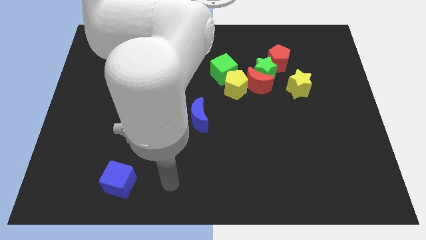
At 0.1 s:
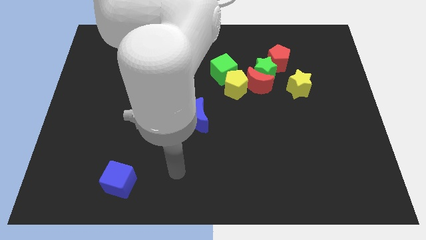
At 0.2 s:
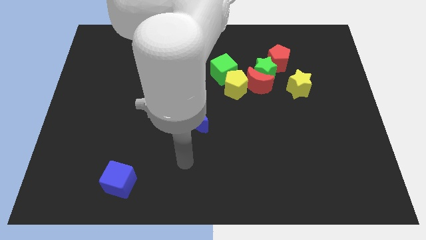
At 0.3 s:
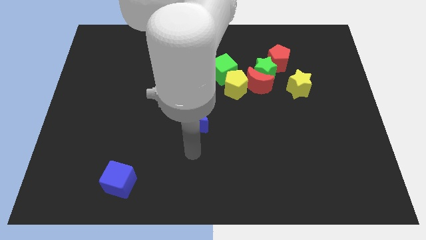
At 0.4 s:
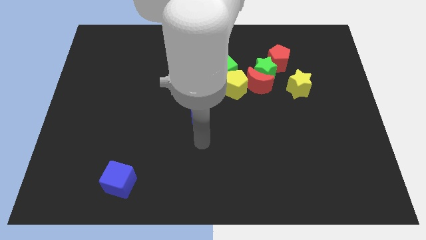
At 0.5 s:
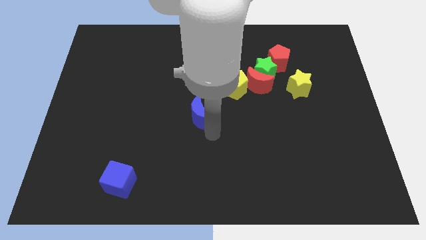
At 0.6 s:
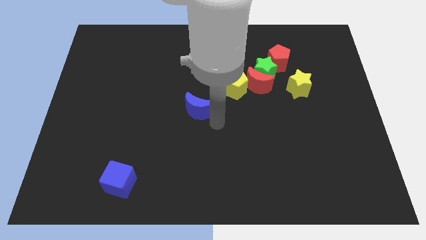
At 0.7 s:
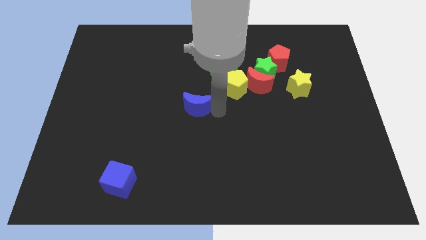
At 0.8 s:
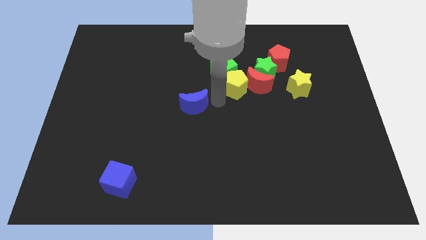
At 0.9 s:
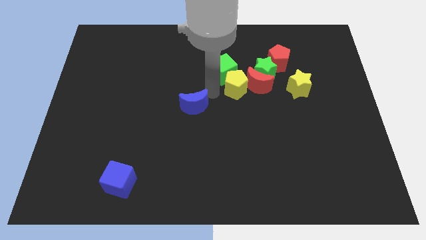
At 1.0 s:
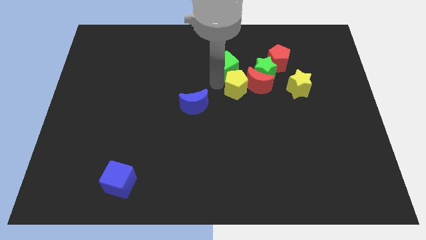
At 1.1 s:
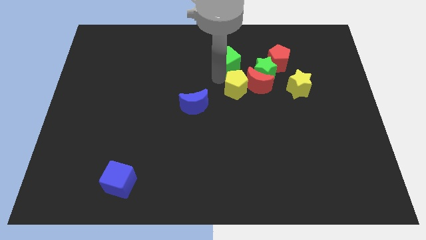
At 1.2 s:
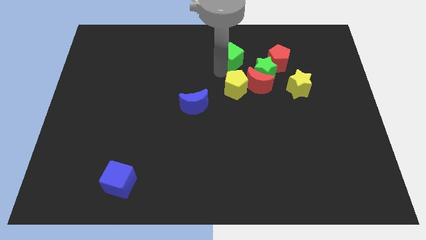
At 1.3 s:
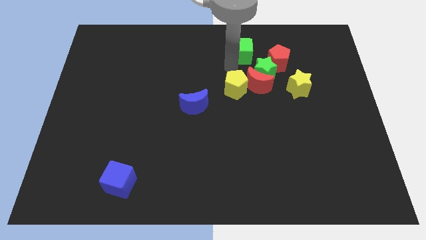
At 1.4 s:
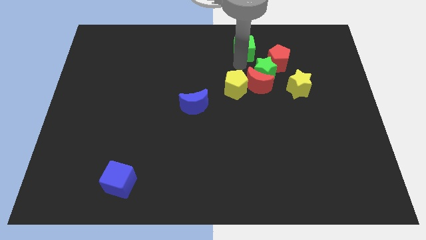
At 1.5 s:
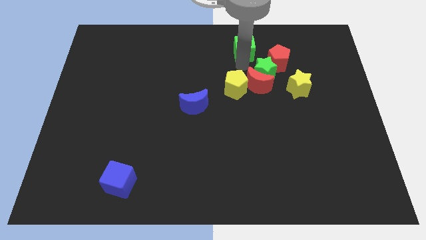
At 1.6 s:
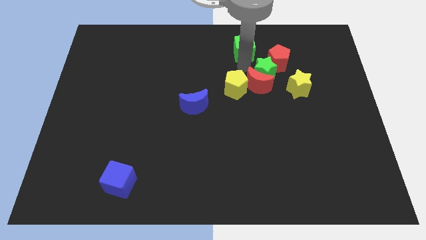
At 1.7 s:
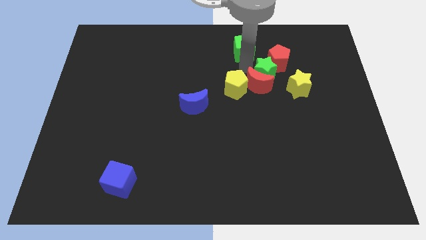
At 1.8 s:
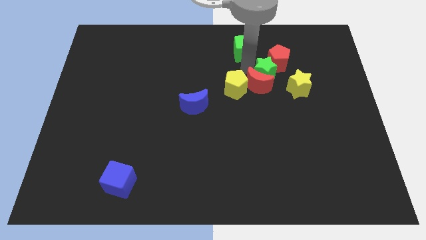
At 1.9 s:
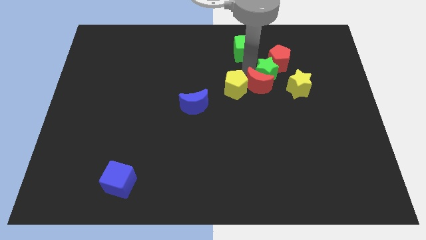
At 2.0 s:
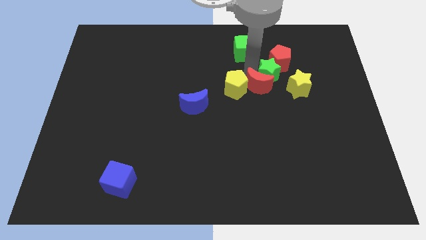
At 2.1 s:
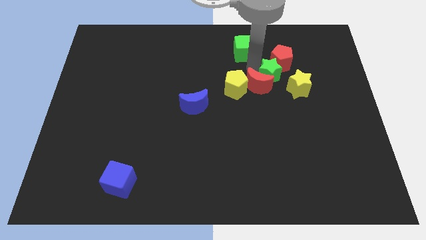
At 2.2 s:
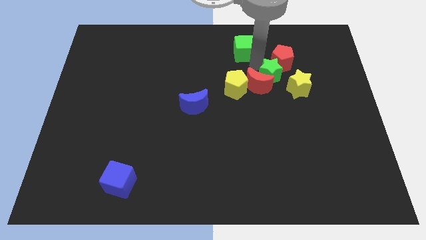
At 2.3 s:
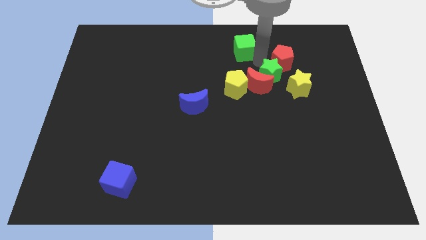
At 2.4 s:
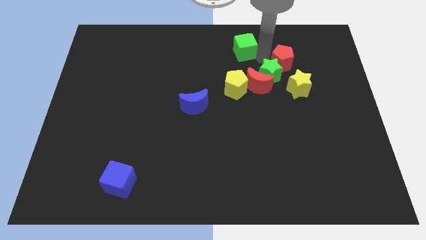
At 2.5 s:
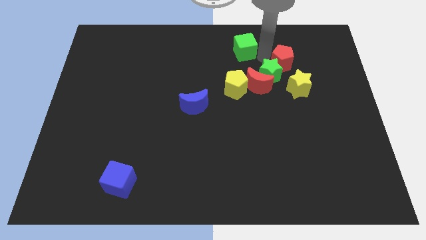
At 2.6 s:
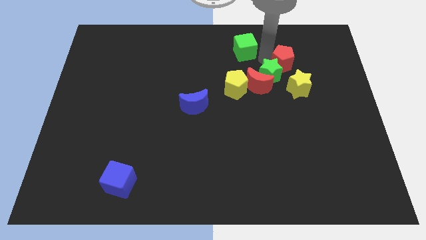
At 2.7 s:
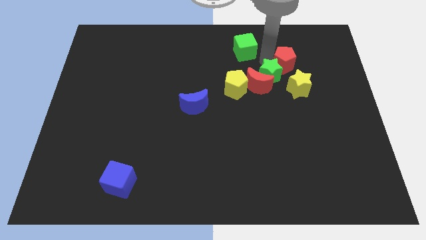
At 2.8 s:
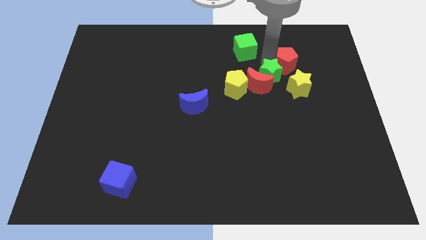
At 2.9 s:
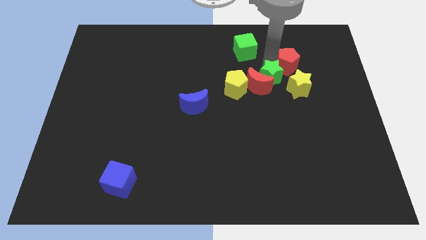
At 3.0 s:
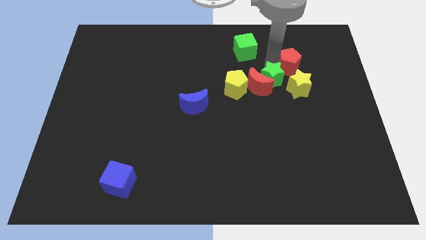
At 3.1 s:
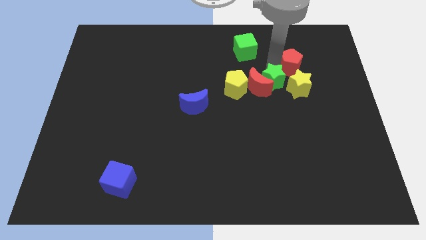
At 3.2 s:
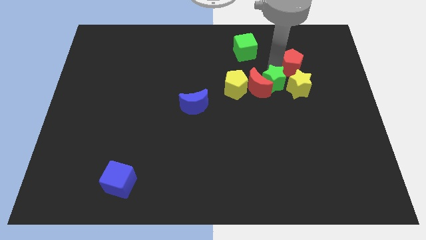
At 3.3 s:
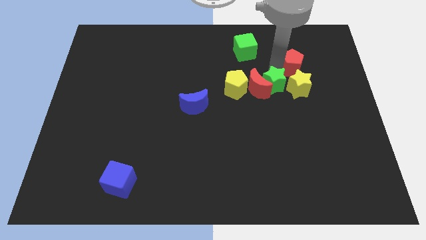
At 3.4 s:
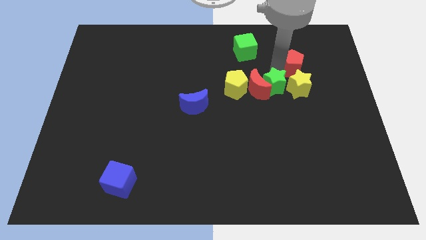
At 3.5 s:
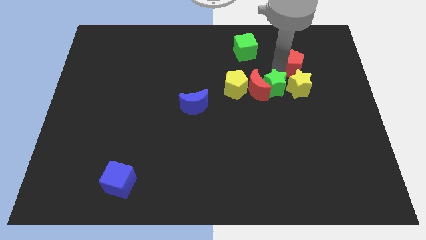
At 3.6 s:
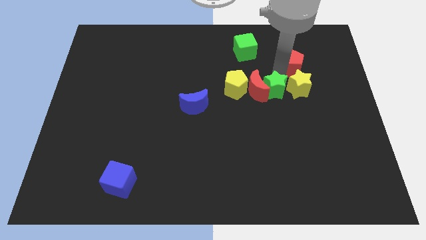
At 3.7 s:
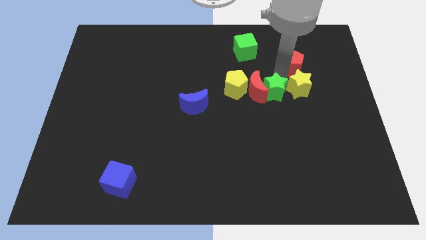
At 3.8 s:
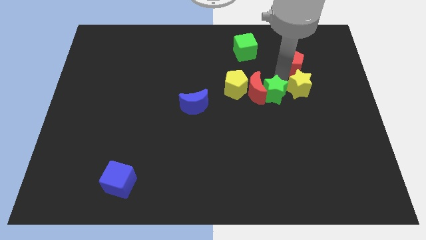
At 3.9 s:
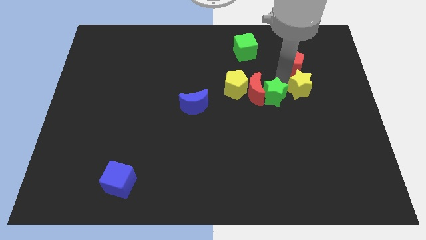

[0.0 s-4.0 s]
slide the green star somewhat down

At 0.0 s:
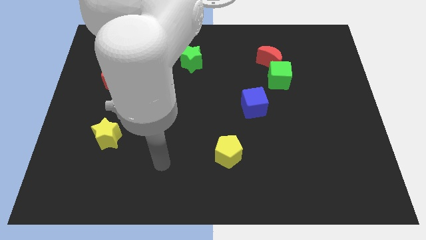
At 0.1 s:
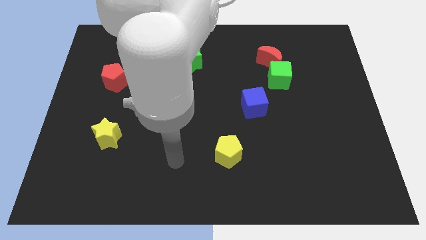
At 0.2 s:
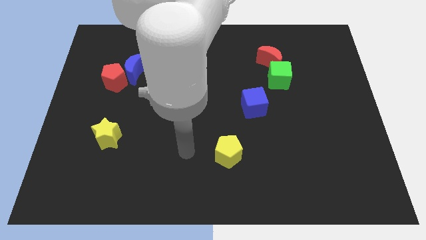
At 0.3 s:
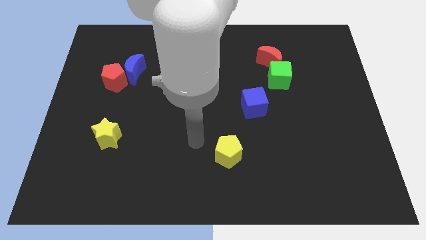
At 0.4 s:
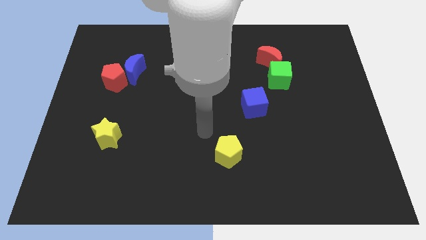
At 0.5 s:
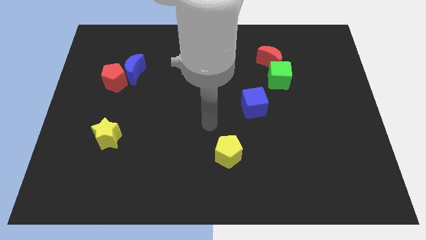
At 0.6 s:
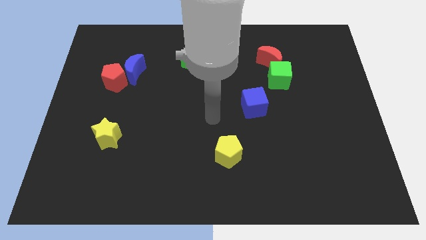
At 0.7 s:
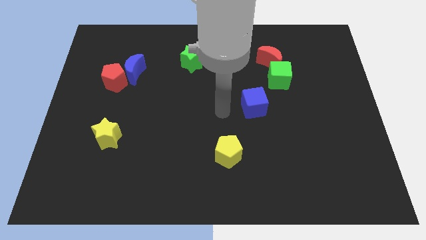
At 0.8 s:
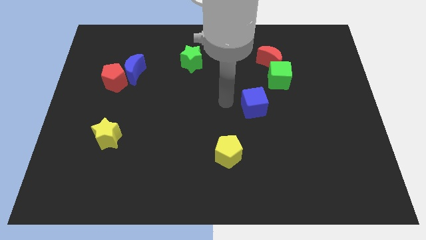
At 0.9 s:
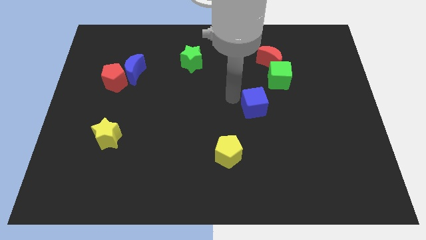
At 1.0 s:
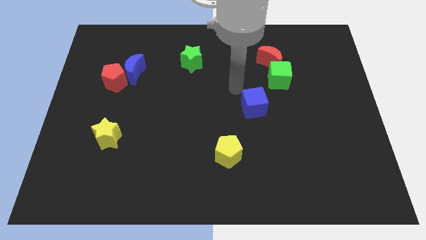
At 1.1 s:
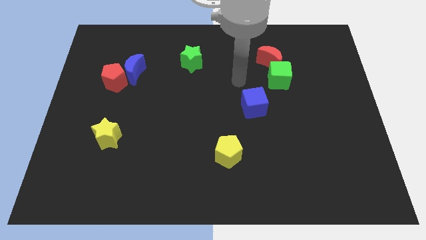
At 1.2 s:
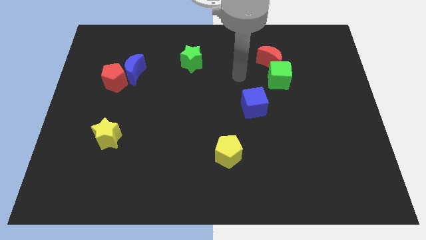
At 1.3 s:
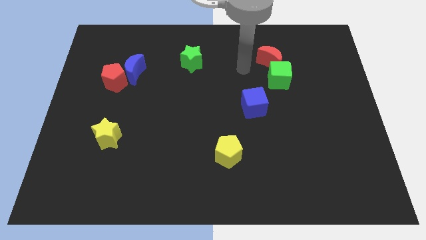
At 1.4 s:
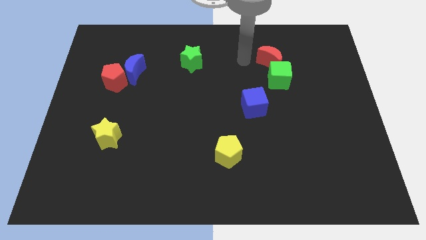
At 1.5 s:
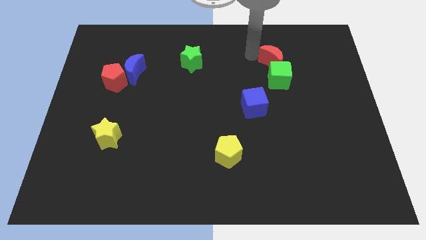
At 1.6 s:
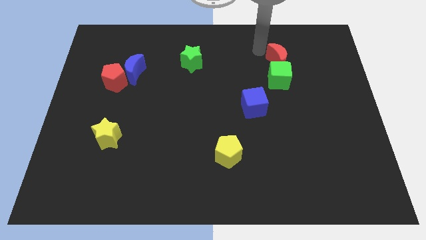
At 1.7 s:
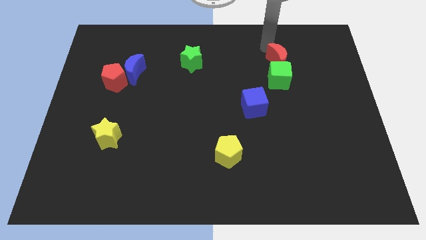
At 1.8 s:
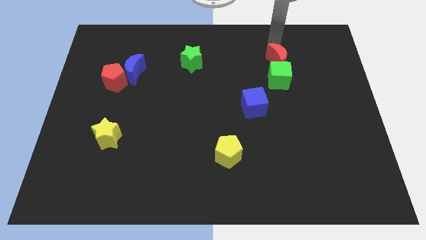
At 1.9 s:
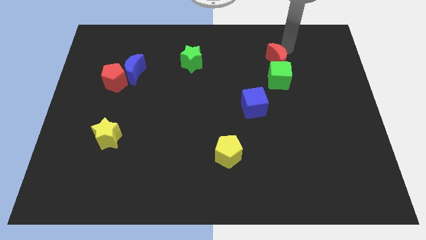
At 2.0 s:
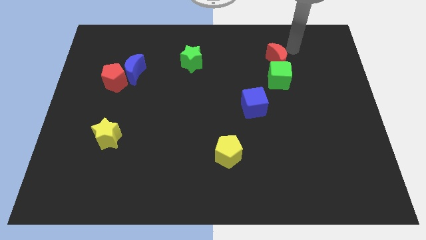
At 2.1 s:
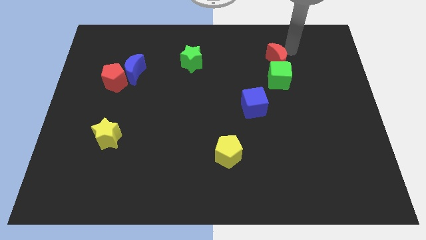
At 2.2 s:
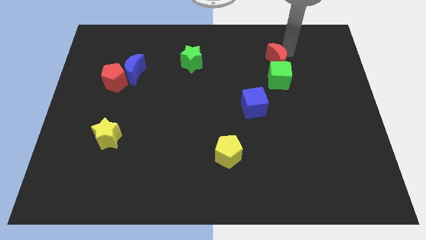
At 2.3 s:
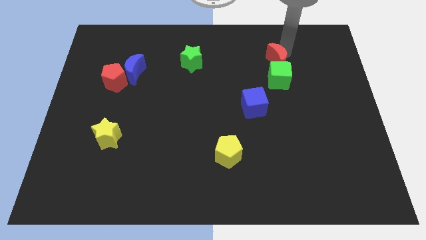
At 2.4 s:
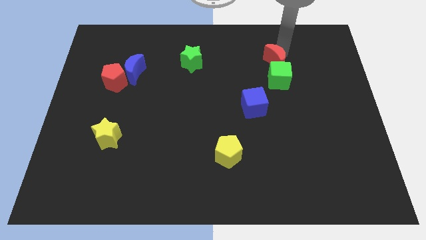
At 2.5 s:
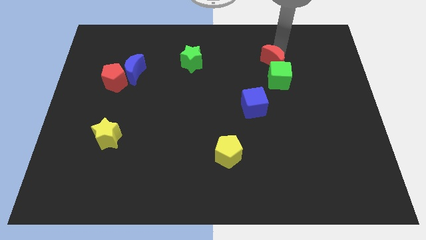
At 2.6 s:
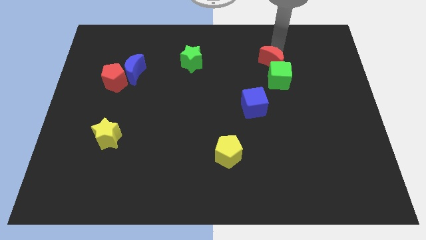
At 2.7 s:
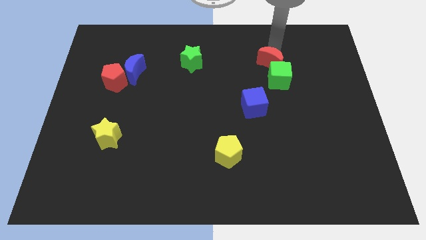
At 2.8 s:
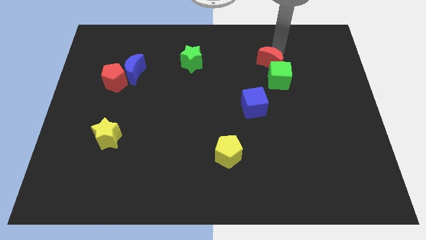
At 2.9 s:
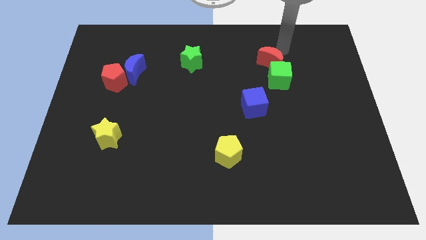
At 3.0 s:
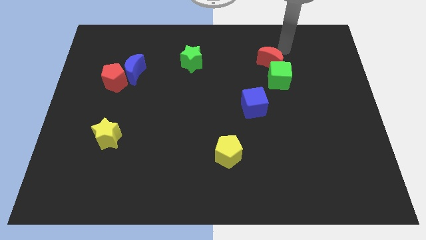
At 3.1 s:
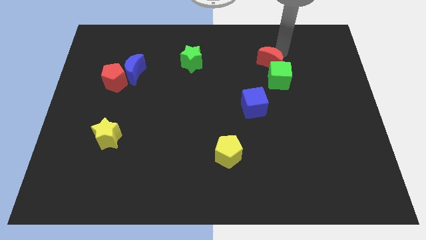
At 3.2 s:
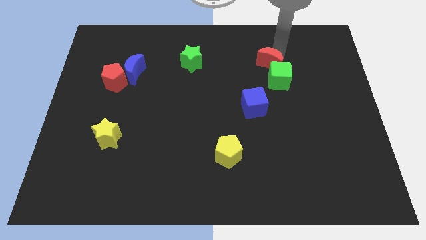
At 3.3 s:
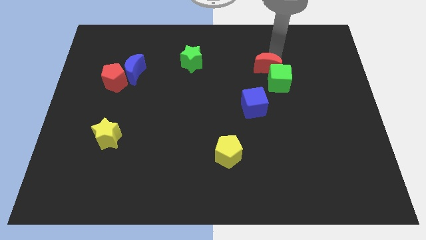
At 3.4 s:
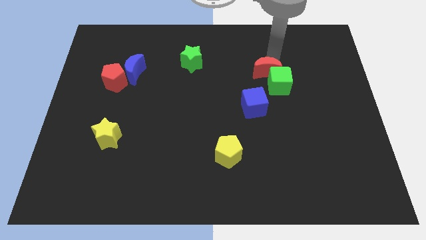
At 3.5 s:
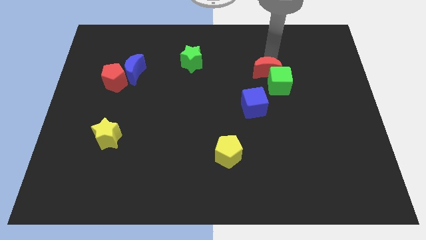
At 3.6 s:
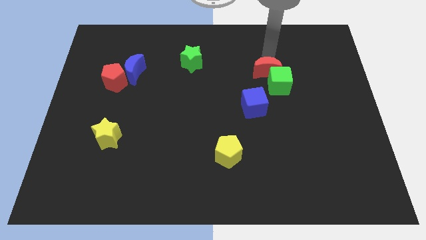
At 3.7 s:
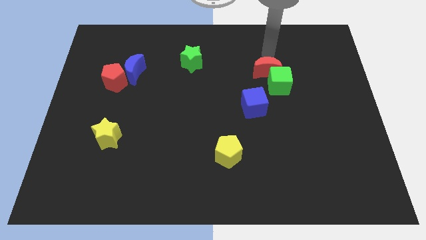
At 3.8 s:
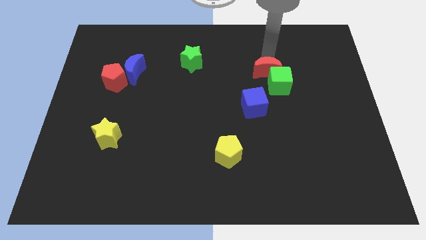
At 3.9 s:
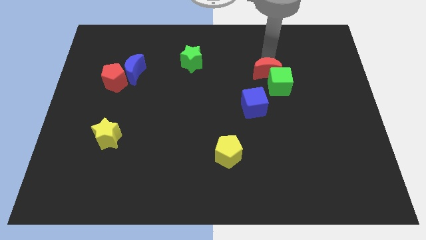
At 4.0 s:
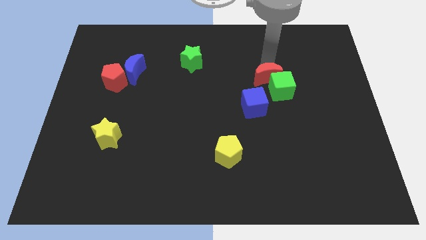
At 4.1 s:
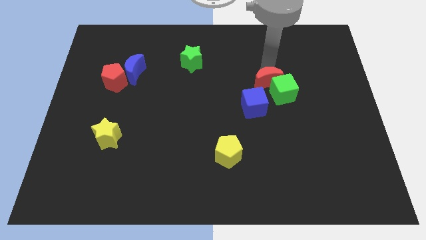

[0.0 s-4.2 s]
move the red moon a bit downwards

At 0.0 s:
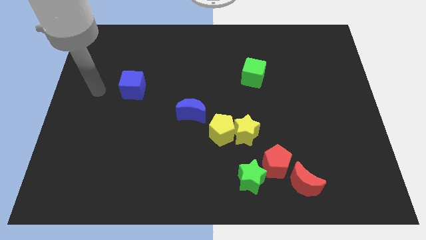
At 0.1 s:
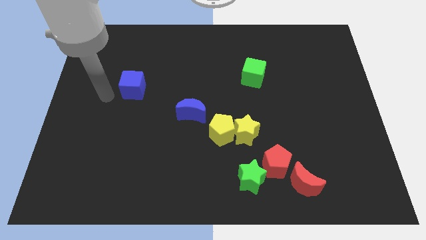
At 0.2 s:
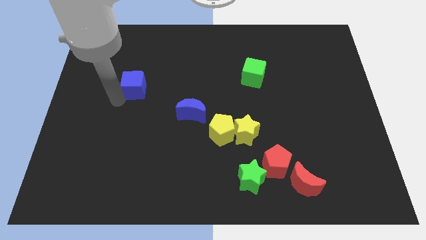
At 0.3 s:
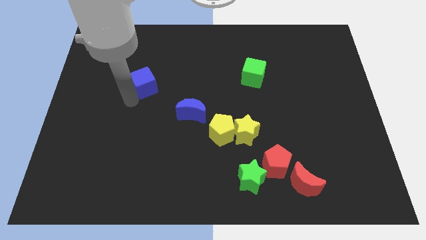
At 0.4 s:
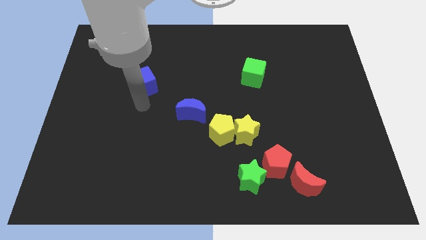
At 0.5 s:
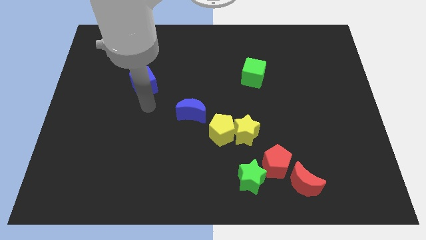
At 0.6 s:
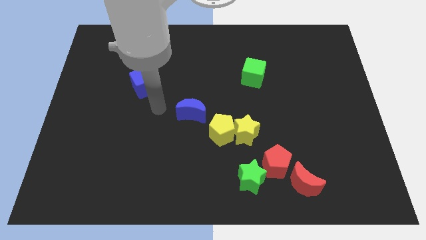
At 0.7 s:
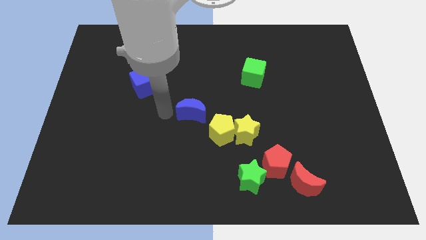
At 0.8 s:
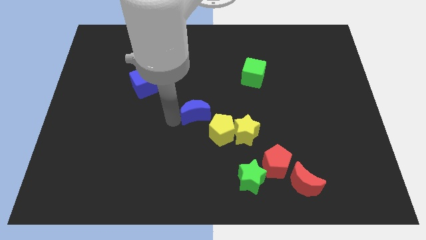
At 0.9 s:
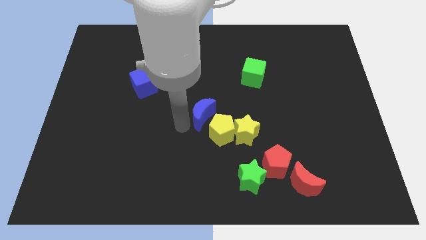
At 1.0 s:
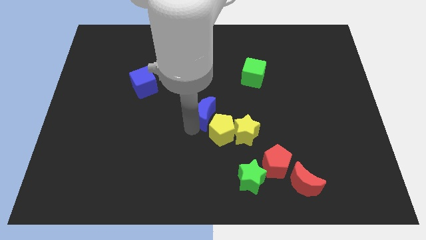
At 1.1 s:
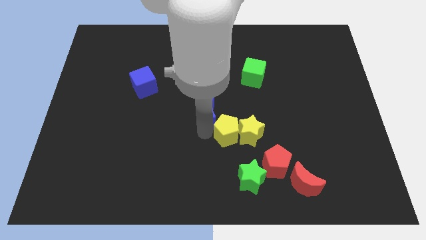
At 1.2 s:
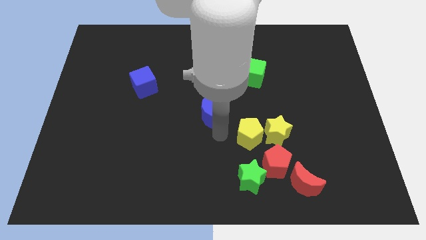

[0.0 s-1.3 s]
move the yellow star a little right
